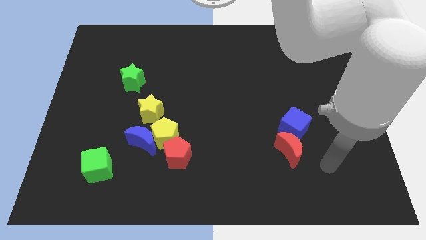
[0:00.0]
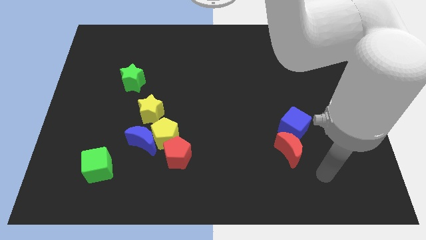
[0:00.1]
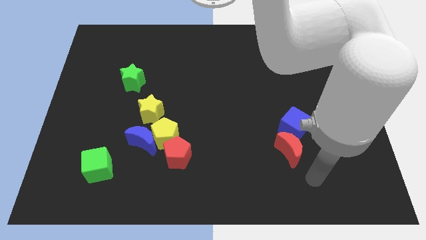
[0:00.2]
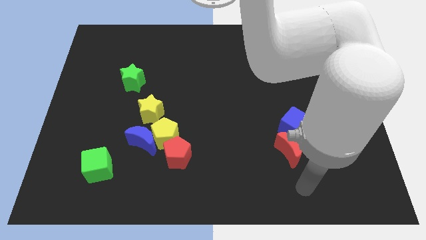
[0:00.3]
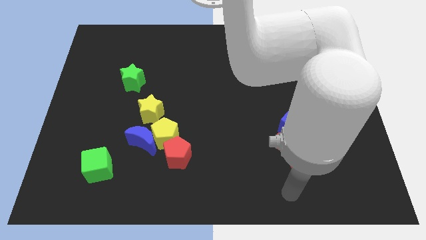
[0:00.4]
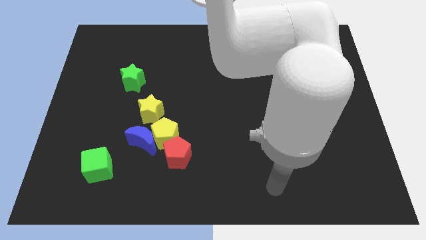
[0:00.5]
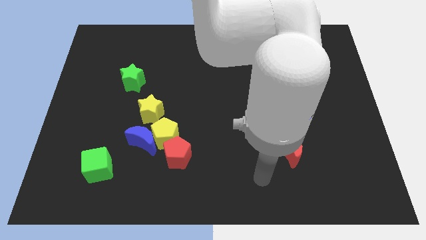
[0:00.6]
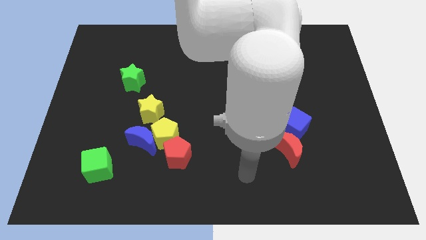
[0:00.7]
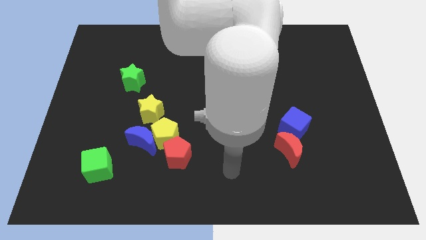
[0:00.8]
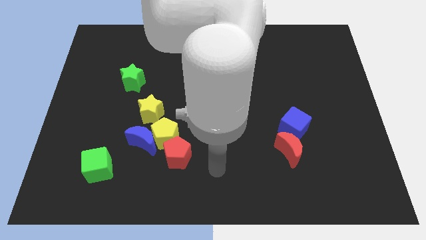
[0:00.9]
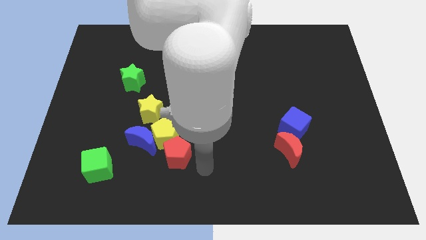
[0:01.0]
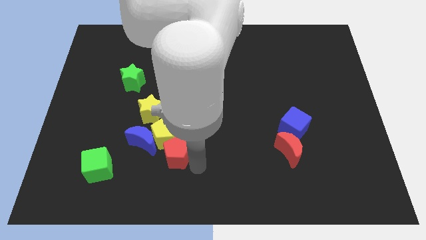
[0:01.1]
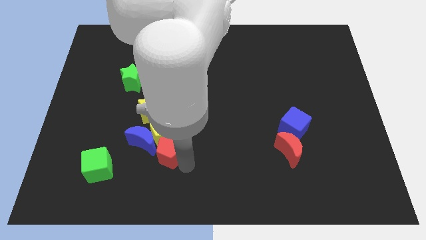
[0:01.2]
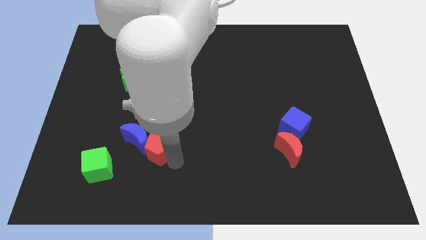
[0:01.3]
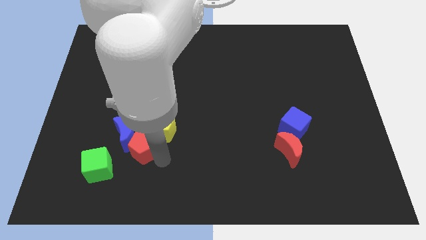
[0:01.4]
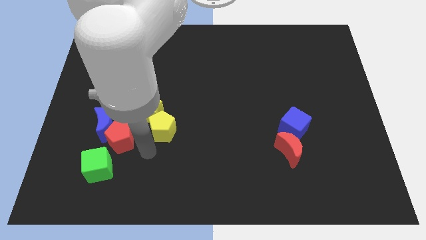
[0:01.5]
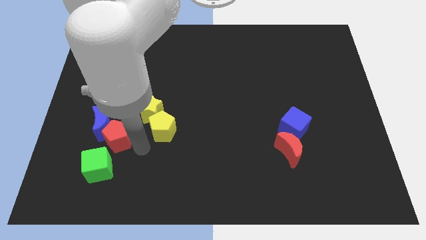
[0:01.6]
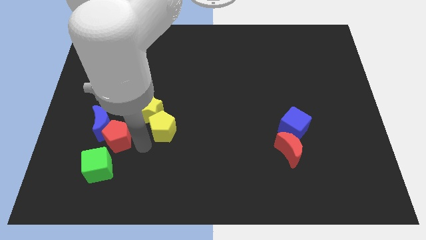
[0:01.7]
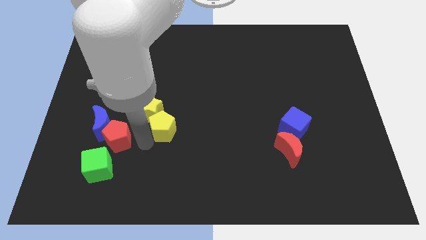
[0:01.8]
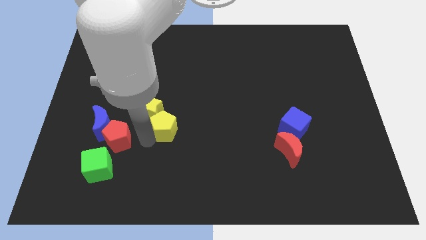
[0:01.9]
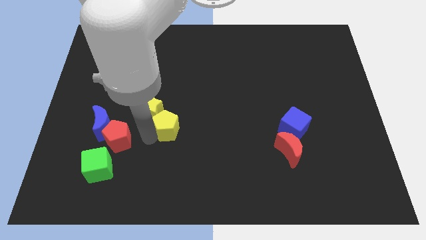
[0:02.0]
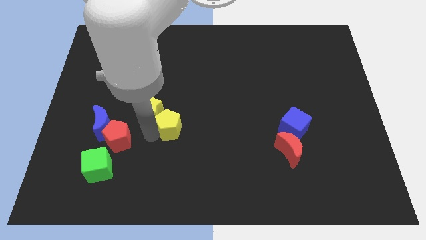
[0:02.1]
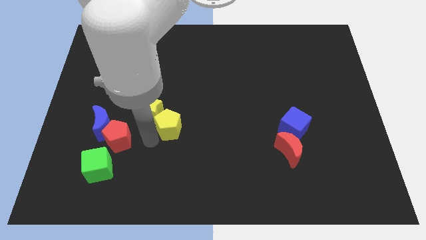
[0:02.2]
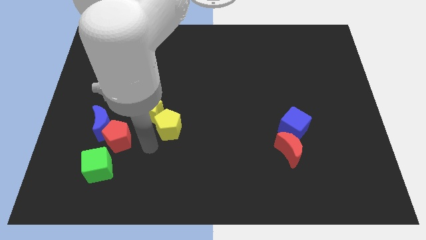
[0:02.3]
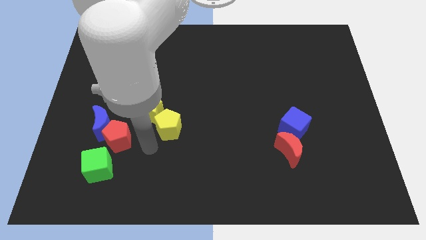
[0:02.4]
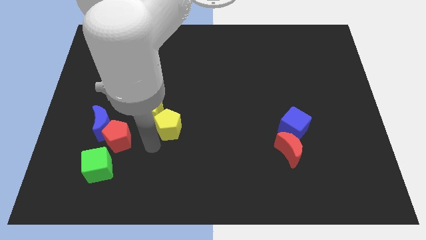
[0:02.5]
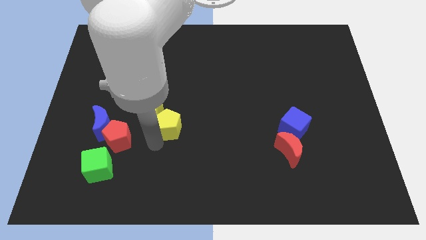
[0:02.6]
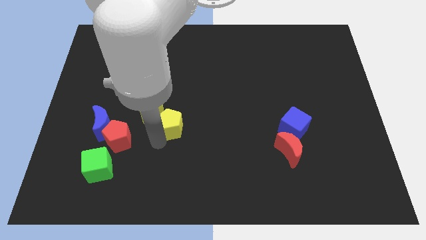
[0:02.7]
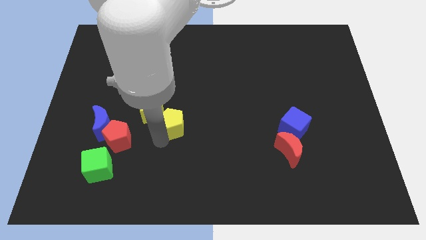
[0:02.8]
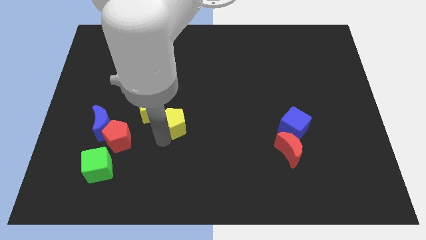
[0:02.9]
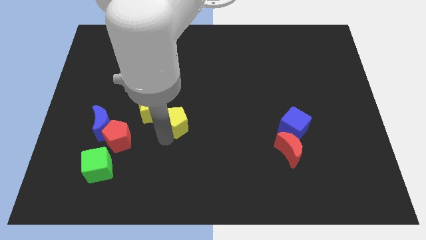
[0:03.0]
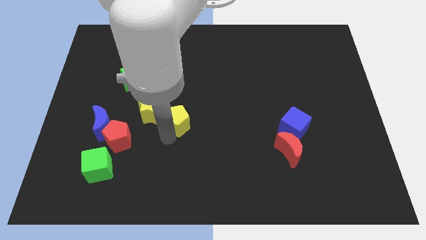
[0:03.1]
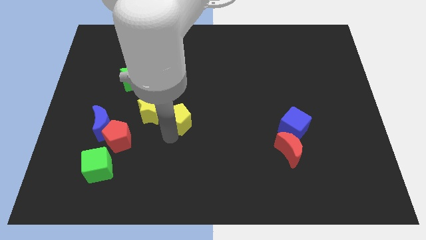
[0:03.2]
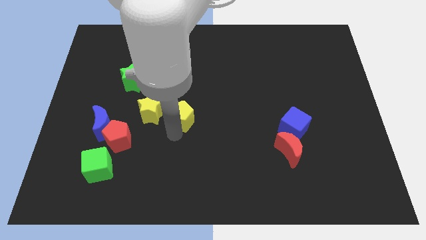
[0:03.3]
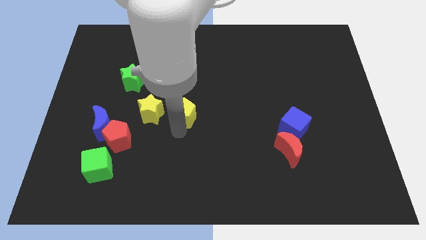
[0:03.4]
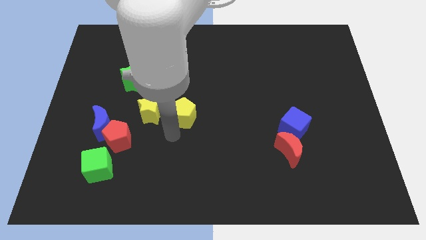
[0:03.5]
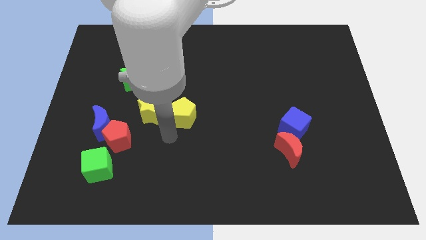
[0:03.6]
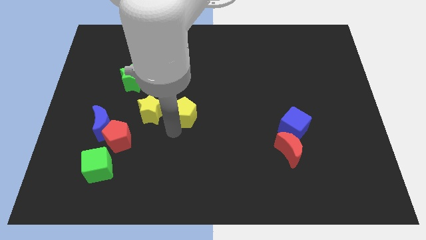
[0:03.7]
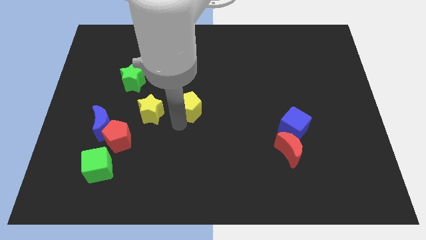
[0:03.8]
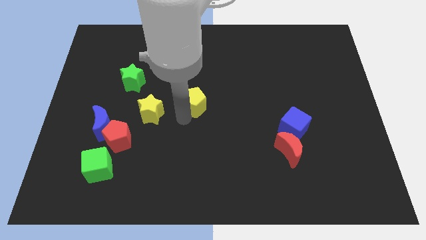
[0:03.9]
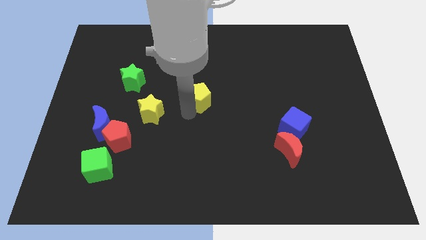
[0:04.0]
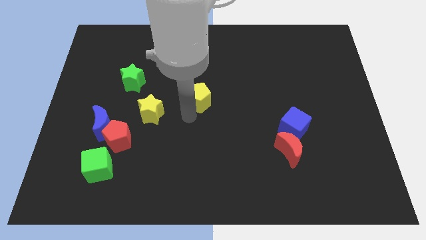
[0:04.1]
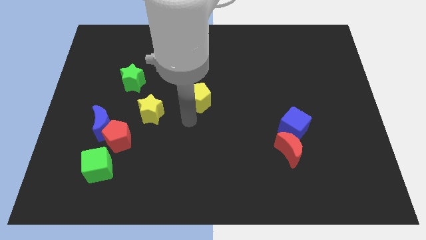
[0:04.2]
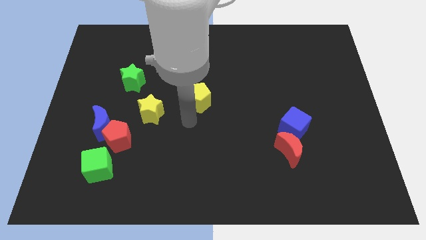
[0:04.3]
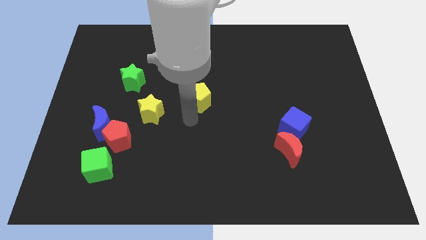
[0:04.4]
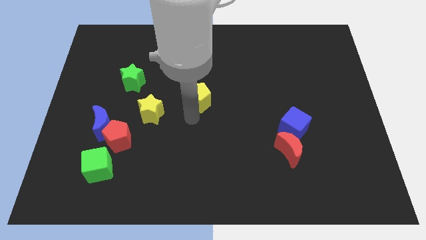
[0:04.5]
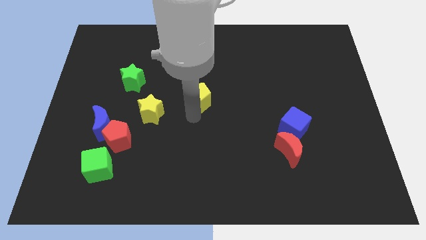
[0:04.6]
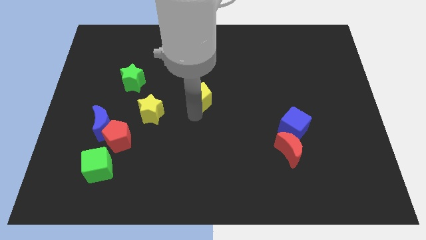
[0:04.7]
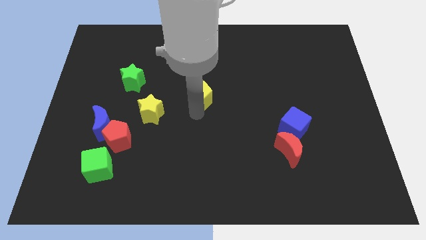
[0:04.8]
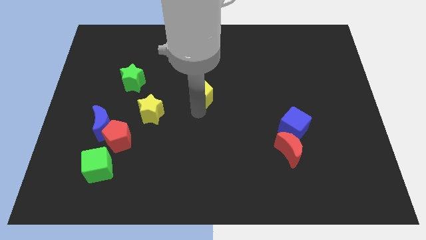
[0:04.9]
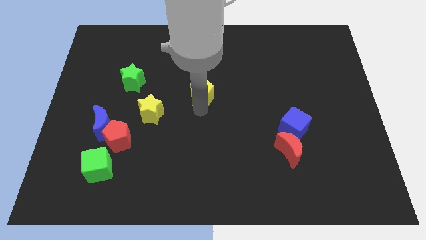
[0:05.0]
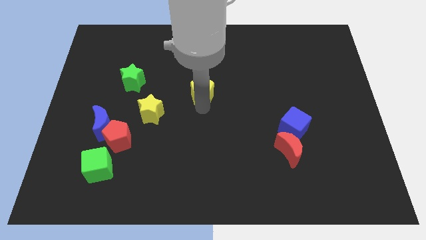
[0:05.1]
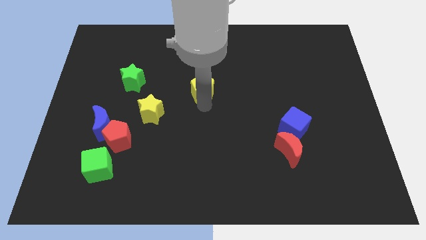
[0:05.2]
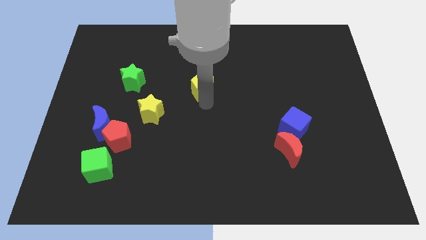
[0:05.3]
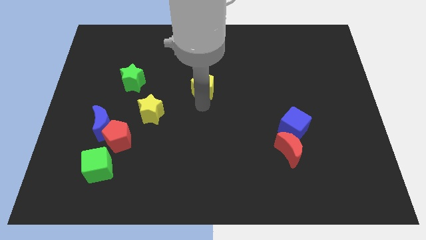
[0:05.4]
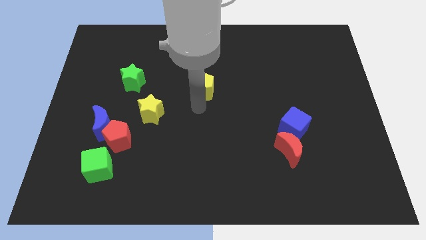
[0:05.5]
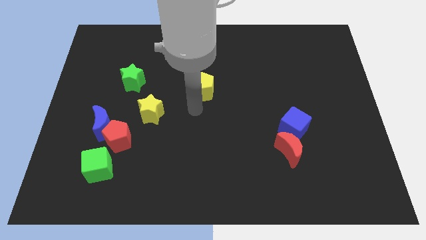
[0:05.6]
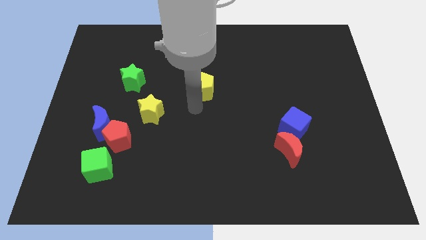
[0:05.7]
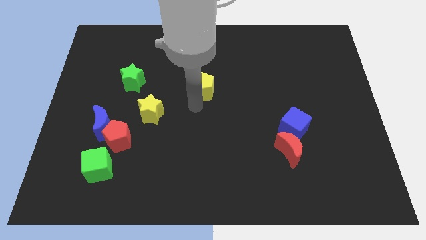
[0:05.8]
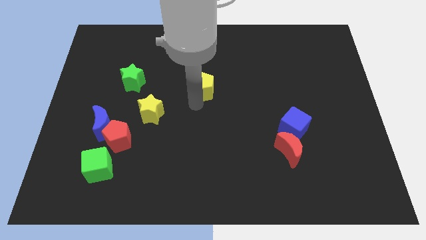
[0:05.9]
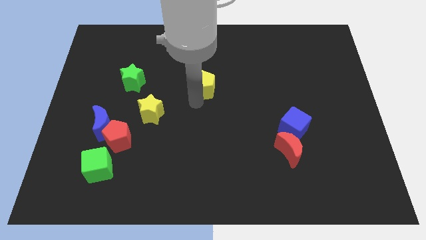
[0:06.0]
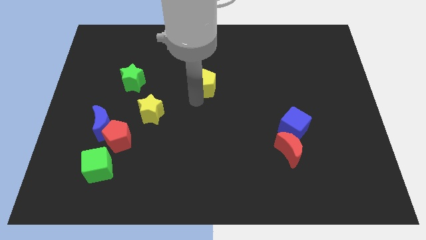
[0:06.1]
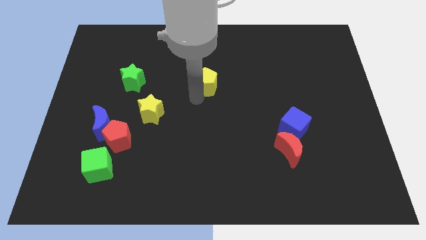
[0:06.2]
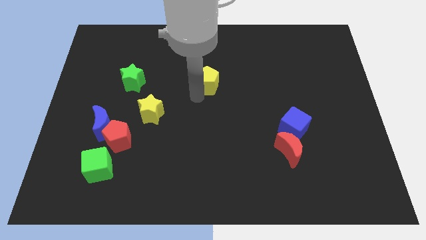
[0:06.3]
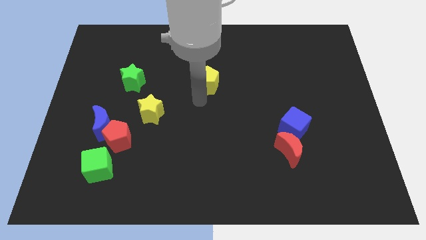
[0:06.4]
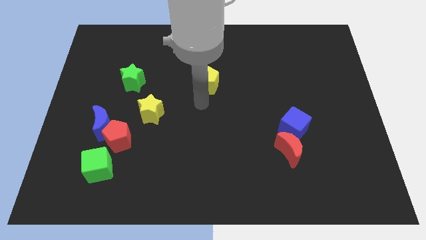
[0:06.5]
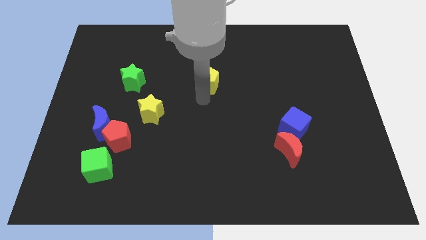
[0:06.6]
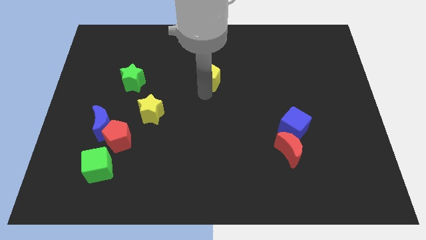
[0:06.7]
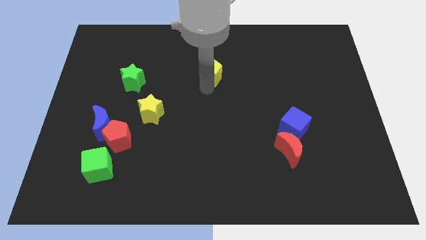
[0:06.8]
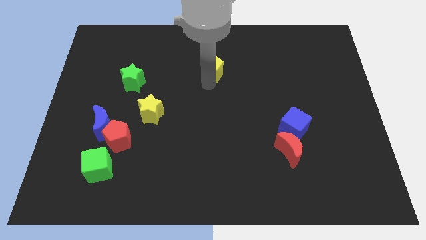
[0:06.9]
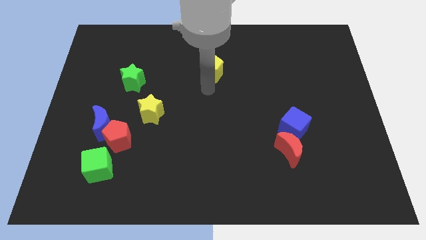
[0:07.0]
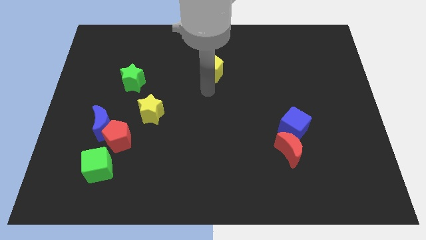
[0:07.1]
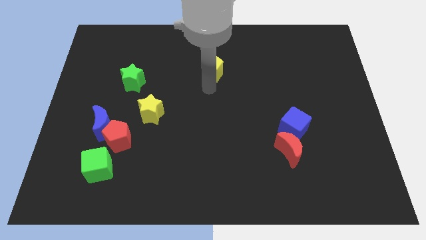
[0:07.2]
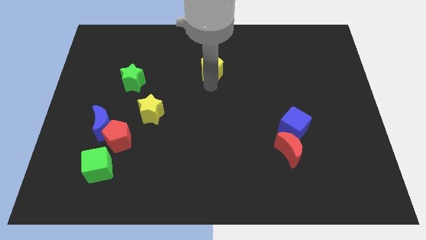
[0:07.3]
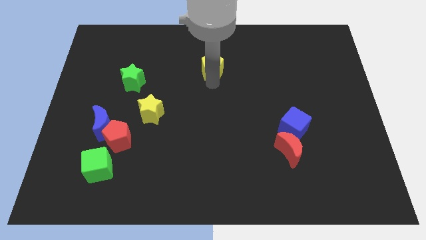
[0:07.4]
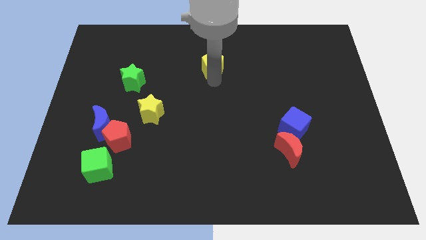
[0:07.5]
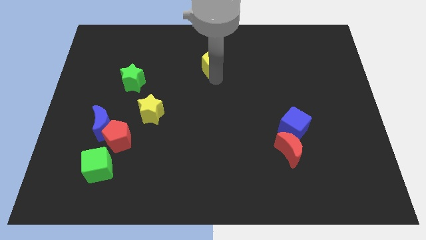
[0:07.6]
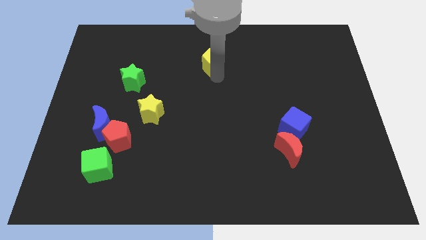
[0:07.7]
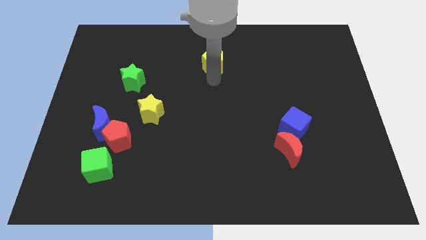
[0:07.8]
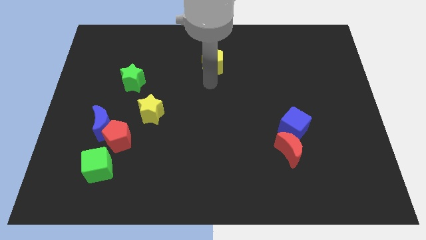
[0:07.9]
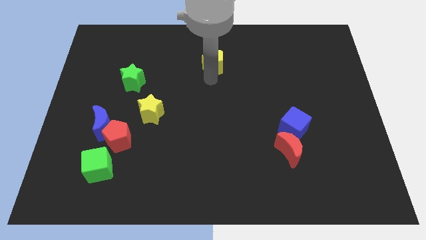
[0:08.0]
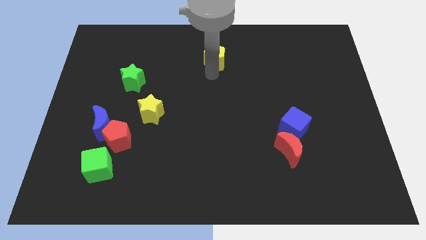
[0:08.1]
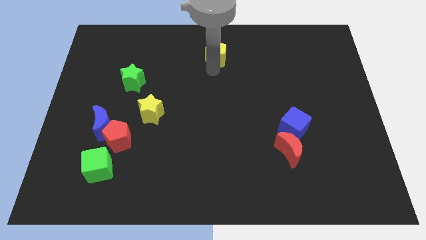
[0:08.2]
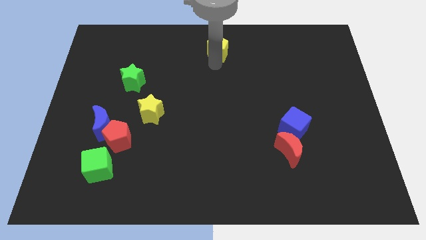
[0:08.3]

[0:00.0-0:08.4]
put the yellow pentagon to the top
